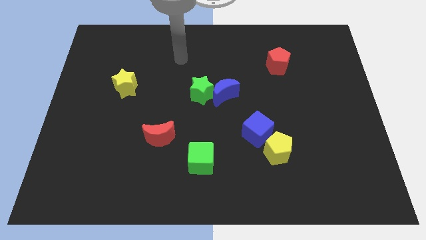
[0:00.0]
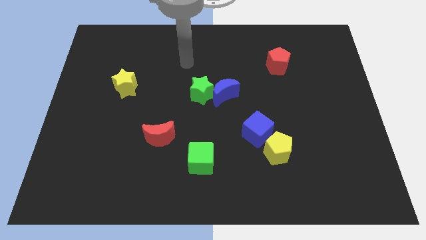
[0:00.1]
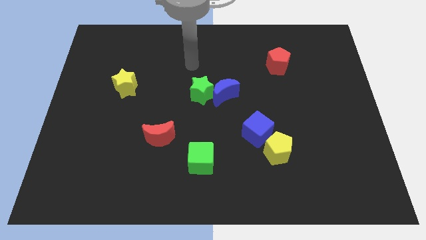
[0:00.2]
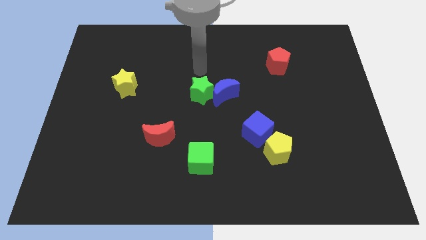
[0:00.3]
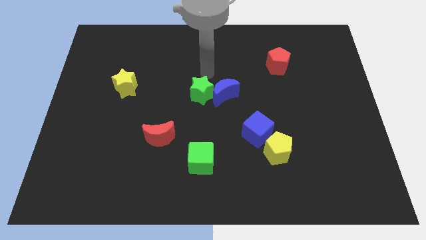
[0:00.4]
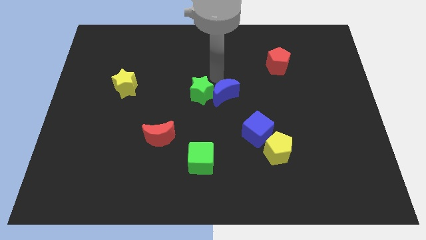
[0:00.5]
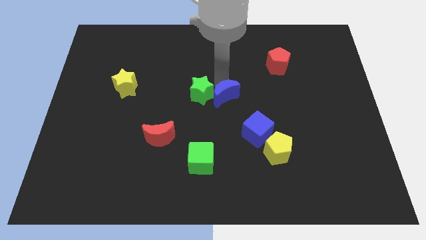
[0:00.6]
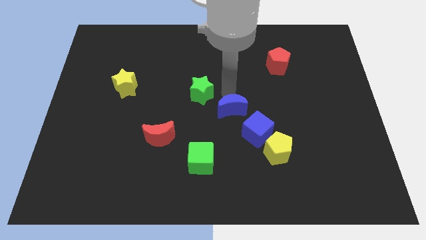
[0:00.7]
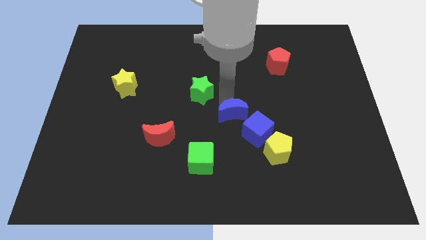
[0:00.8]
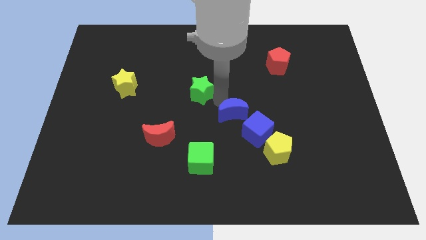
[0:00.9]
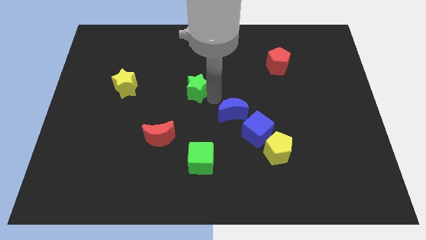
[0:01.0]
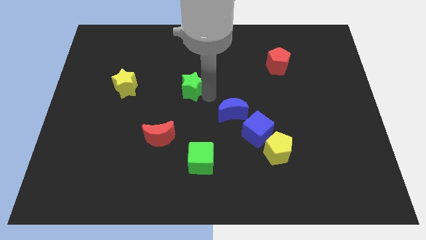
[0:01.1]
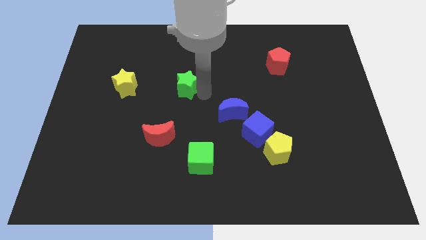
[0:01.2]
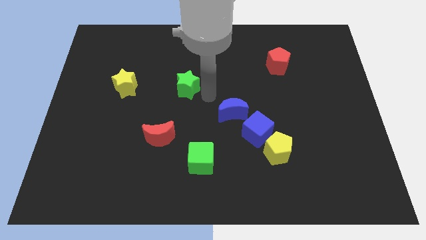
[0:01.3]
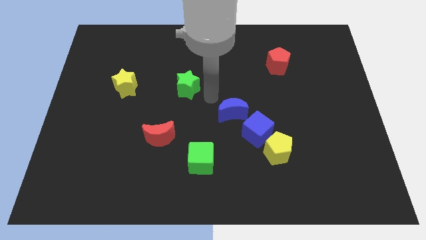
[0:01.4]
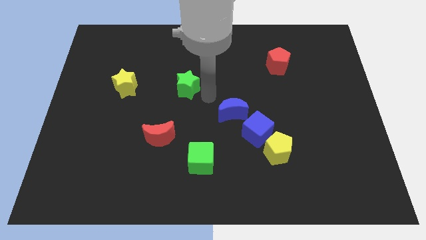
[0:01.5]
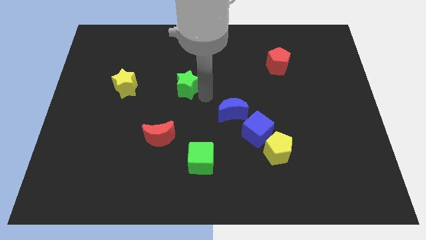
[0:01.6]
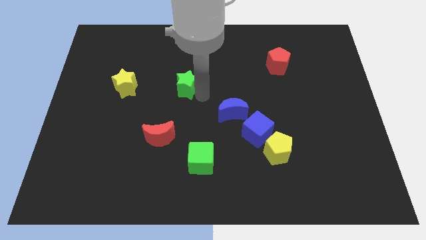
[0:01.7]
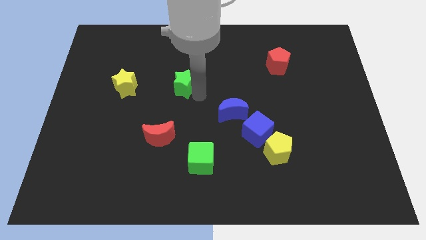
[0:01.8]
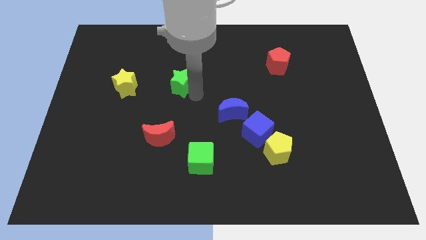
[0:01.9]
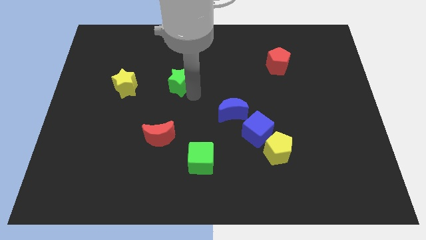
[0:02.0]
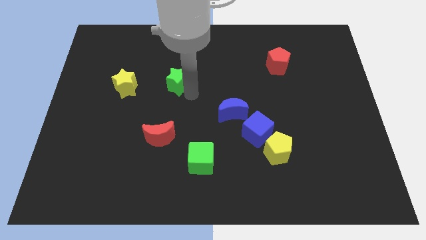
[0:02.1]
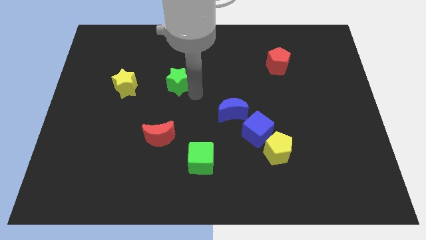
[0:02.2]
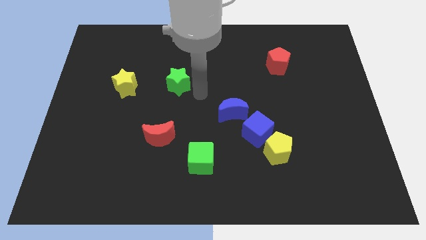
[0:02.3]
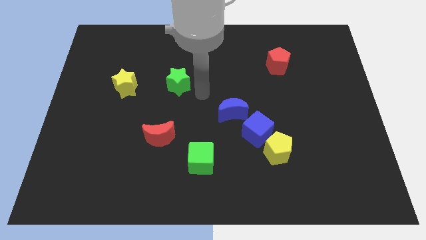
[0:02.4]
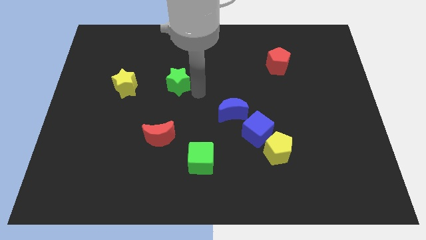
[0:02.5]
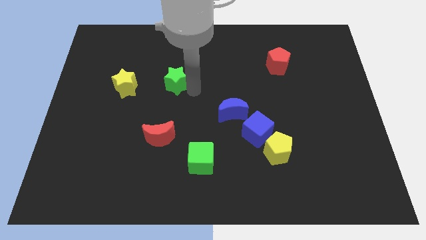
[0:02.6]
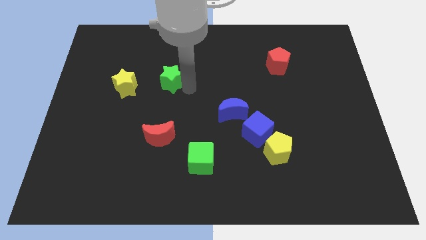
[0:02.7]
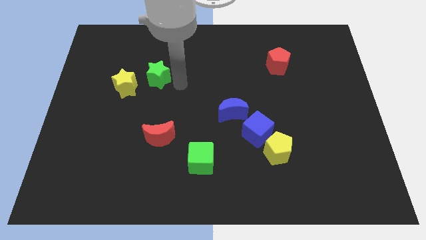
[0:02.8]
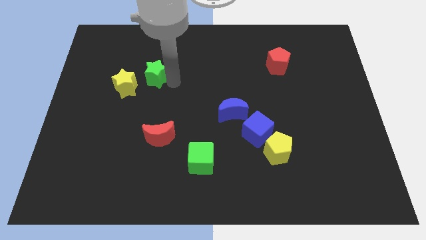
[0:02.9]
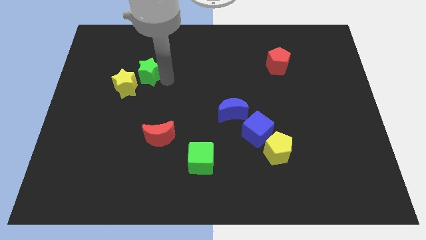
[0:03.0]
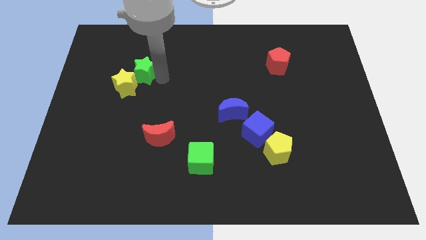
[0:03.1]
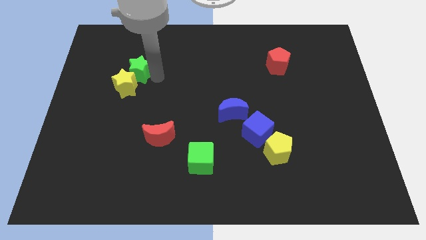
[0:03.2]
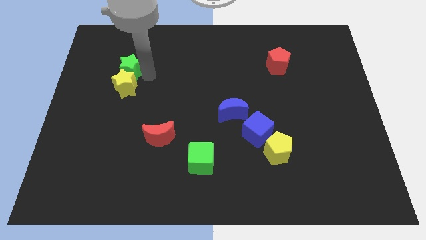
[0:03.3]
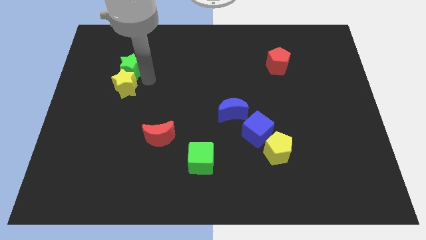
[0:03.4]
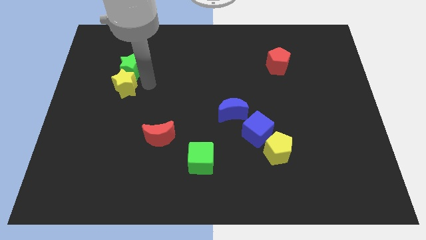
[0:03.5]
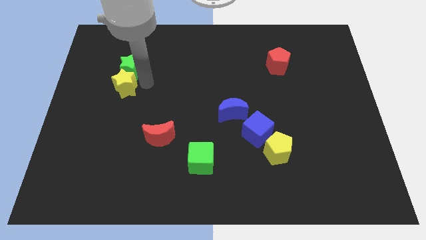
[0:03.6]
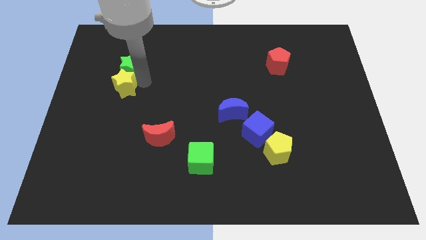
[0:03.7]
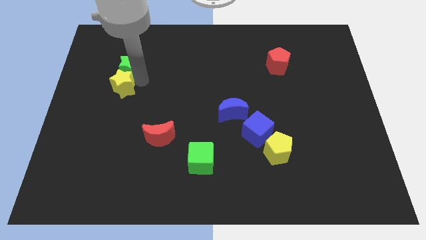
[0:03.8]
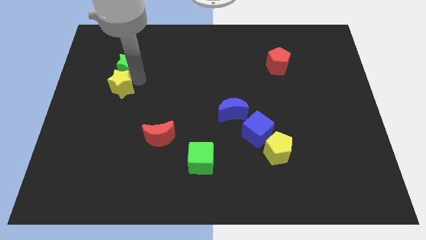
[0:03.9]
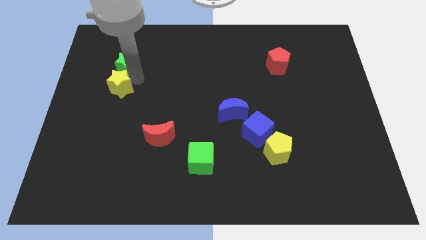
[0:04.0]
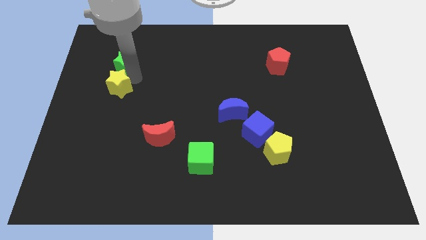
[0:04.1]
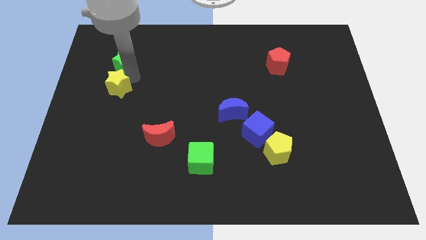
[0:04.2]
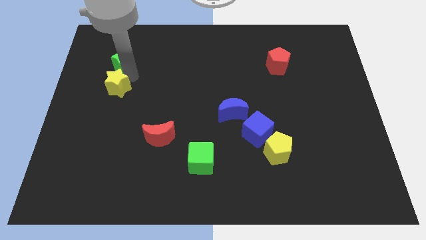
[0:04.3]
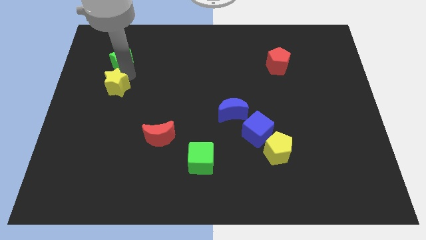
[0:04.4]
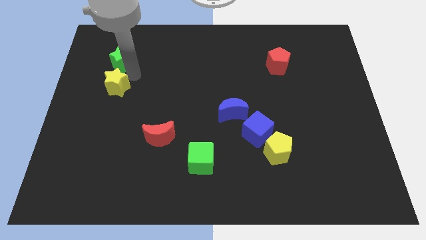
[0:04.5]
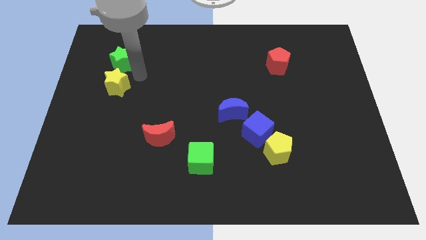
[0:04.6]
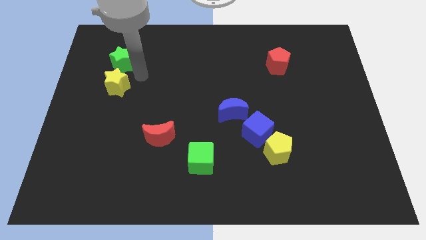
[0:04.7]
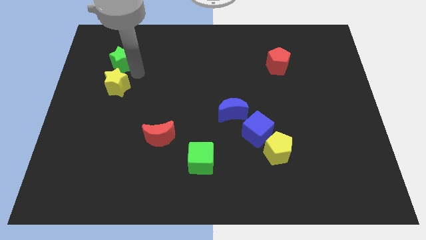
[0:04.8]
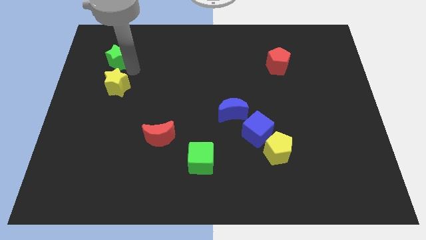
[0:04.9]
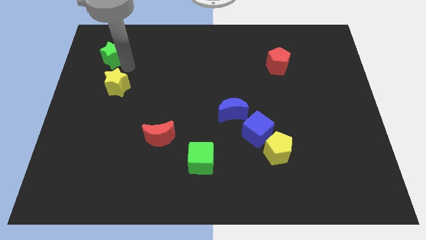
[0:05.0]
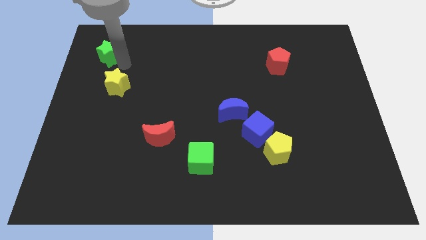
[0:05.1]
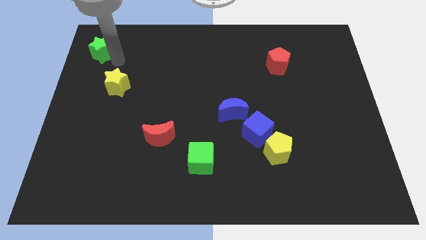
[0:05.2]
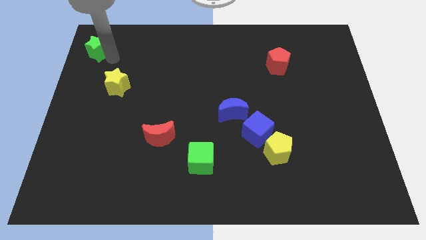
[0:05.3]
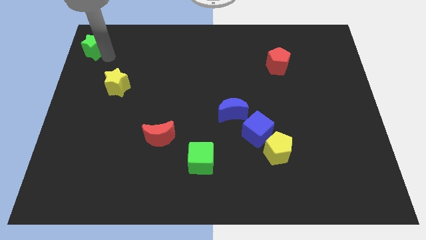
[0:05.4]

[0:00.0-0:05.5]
move the green star to the top left corner

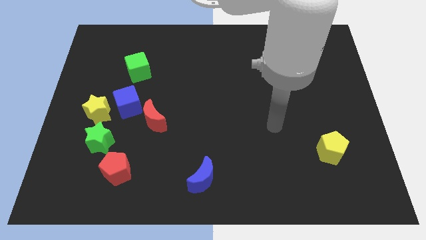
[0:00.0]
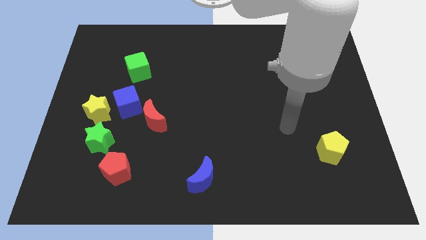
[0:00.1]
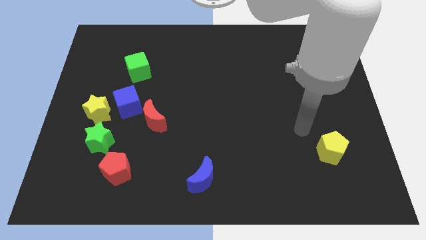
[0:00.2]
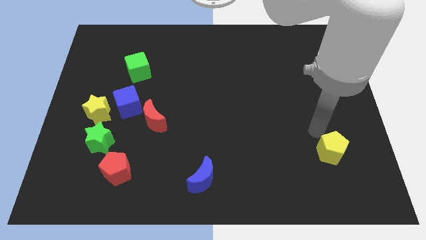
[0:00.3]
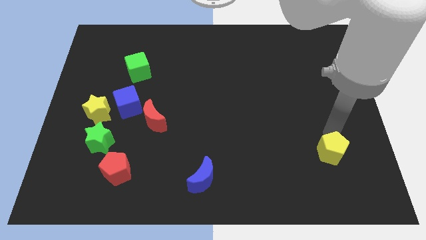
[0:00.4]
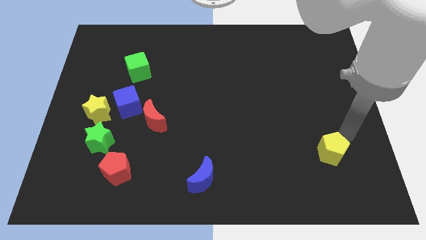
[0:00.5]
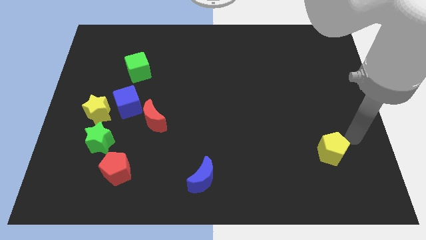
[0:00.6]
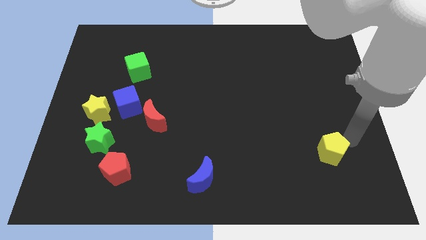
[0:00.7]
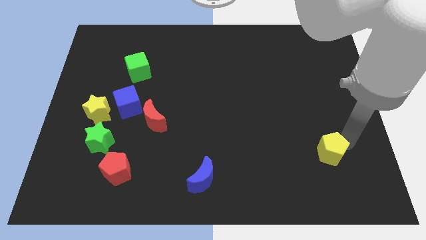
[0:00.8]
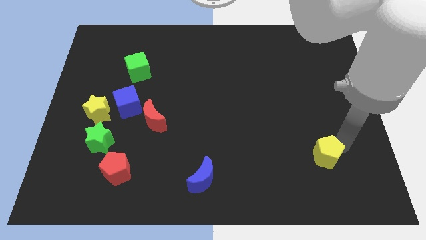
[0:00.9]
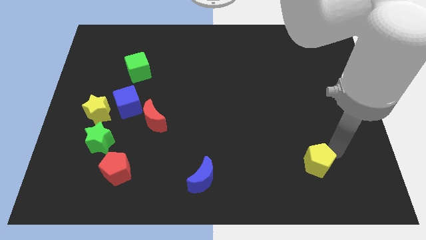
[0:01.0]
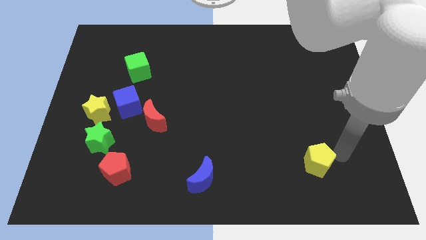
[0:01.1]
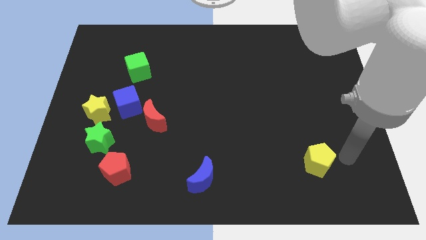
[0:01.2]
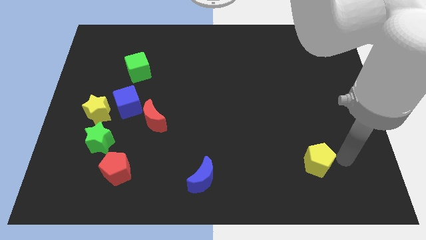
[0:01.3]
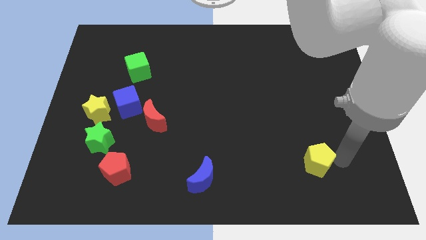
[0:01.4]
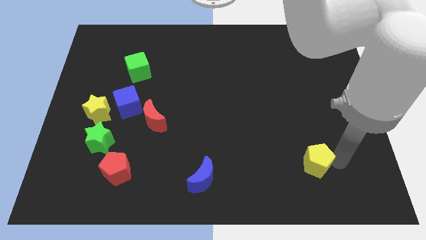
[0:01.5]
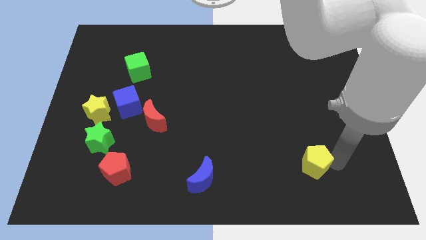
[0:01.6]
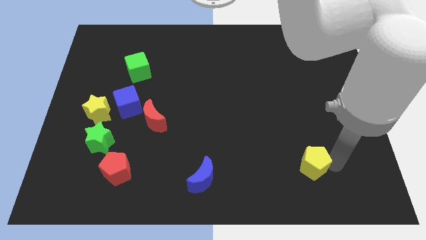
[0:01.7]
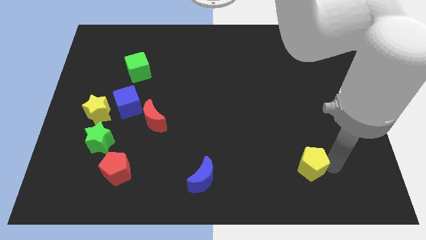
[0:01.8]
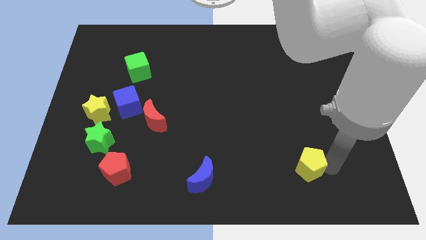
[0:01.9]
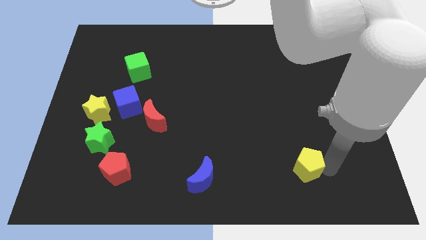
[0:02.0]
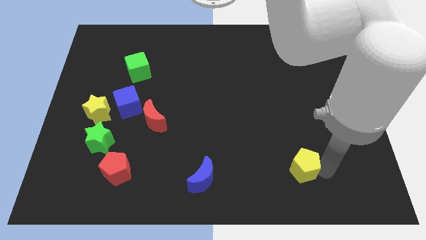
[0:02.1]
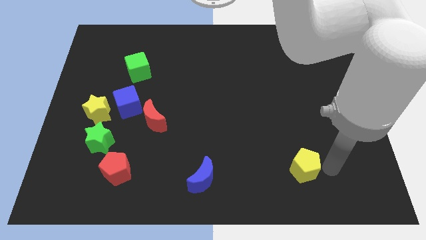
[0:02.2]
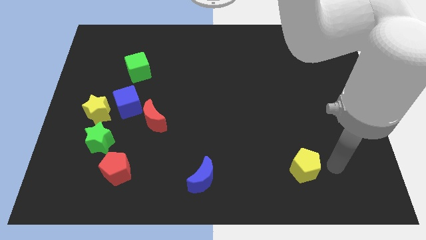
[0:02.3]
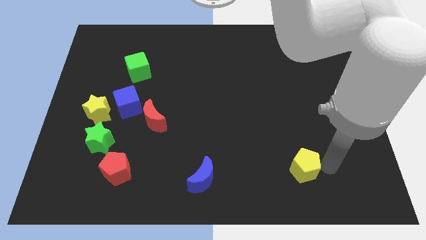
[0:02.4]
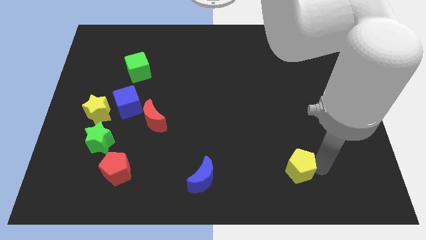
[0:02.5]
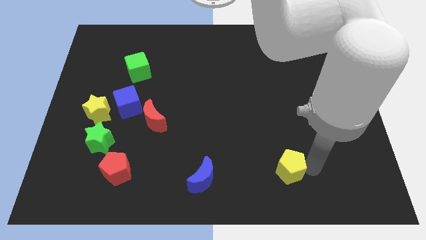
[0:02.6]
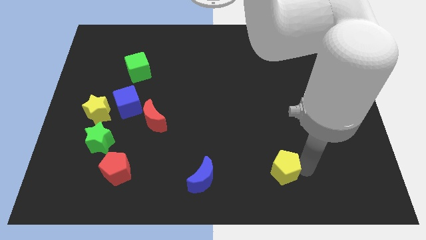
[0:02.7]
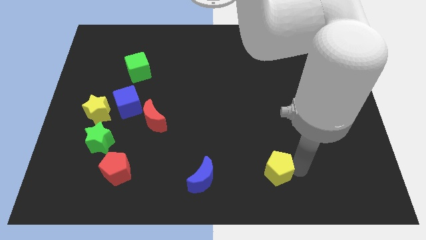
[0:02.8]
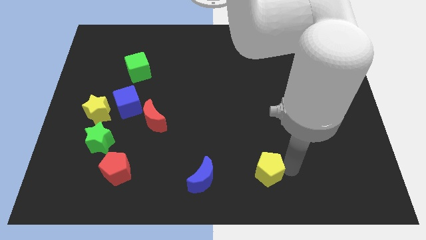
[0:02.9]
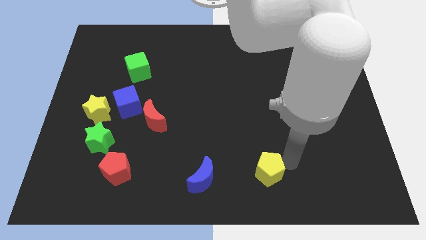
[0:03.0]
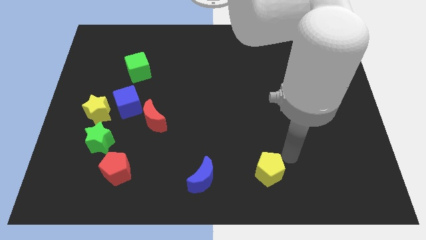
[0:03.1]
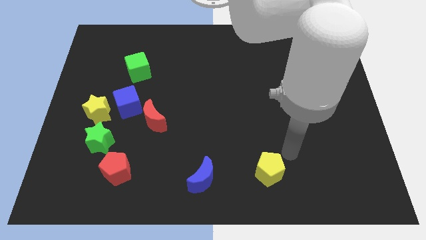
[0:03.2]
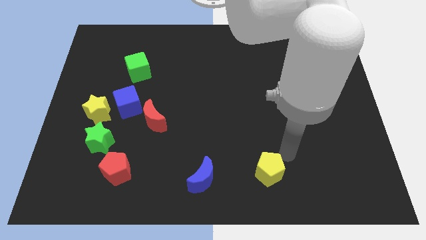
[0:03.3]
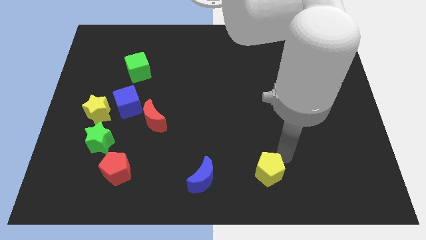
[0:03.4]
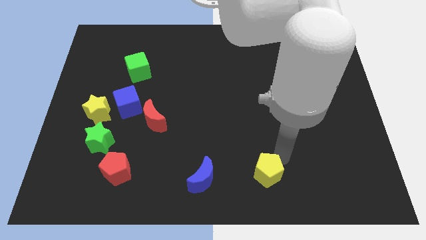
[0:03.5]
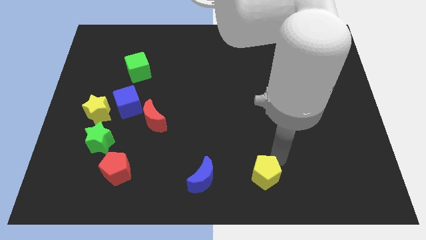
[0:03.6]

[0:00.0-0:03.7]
push the yellow pentagon to the bottom side
